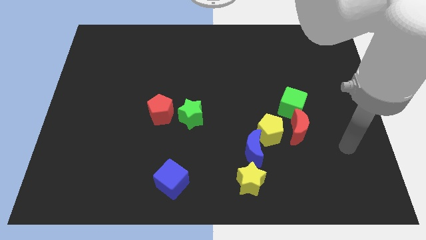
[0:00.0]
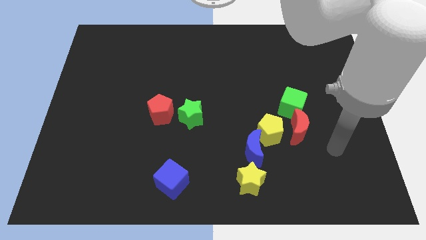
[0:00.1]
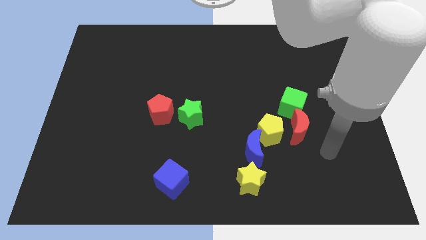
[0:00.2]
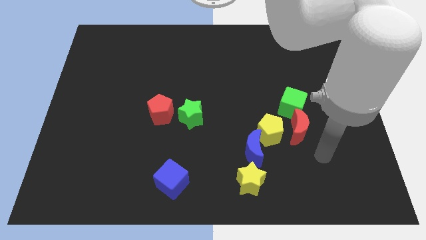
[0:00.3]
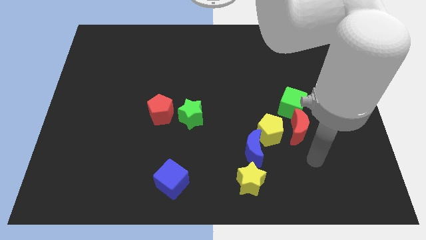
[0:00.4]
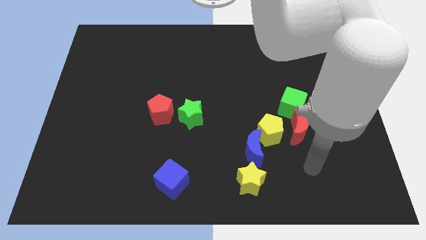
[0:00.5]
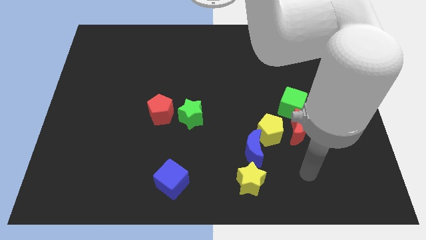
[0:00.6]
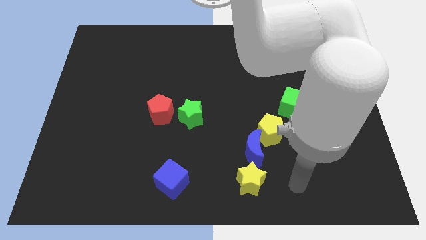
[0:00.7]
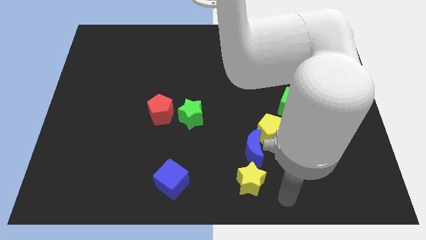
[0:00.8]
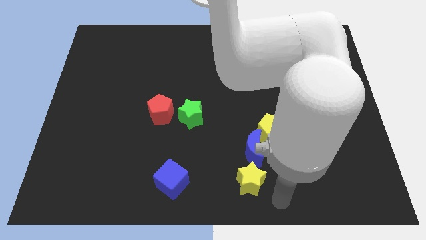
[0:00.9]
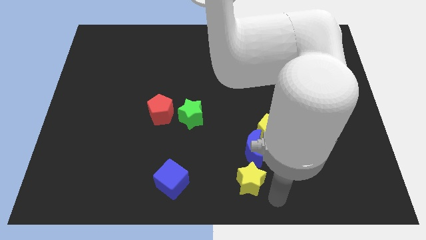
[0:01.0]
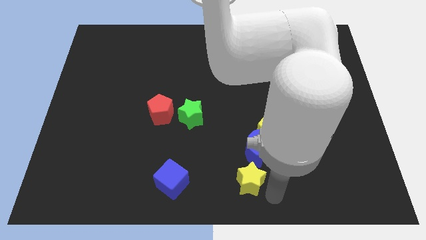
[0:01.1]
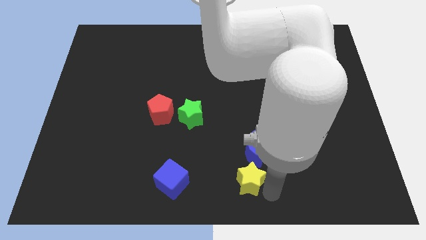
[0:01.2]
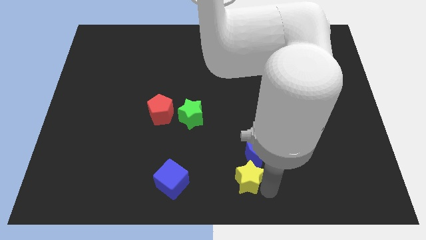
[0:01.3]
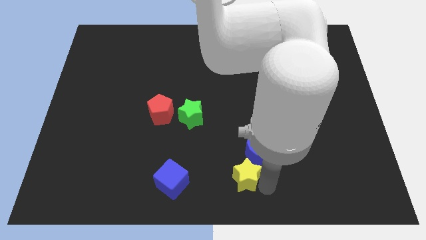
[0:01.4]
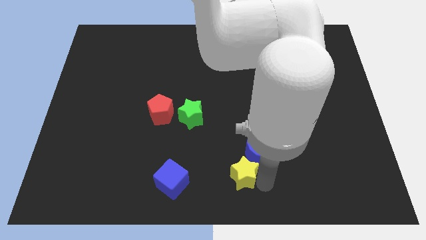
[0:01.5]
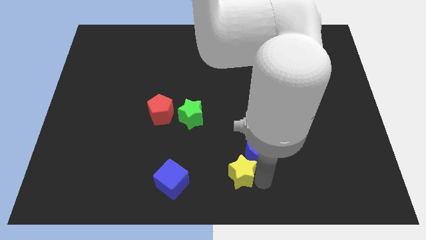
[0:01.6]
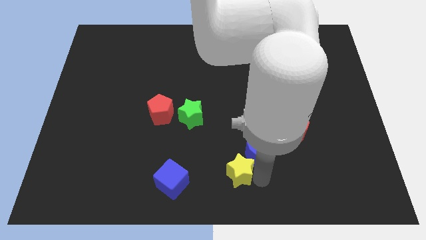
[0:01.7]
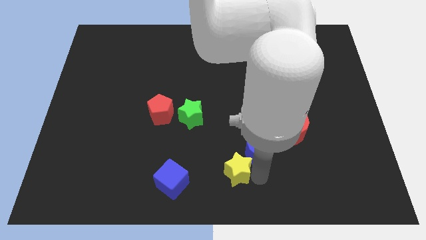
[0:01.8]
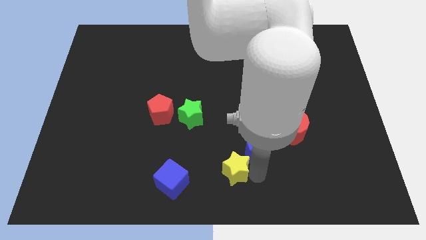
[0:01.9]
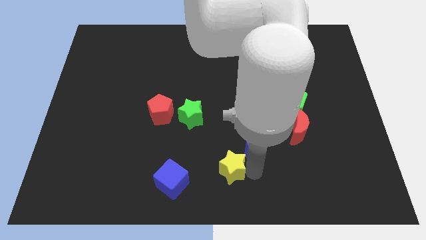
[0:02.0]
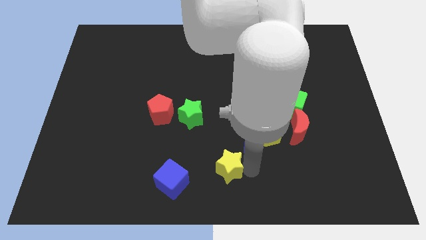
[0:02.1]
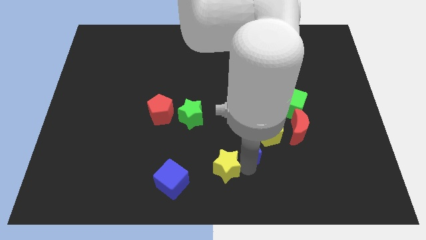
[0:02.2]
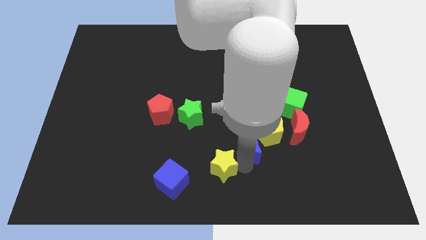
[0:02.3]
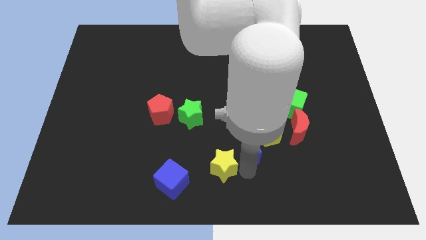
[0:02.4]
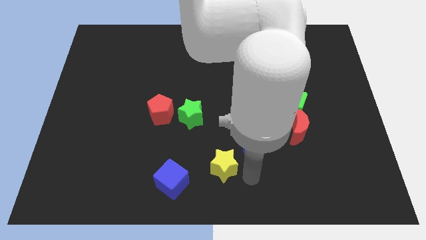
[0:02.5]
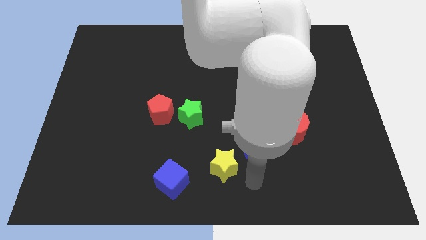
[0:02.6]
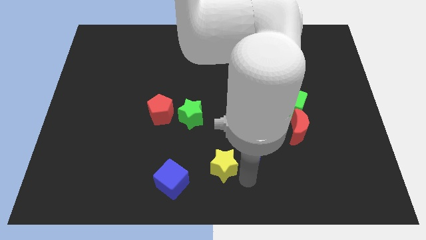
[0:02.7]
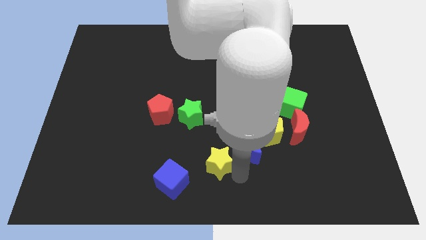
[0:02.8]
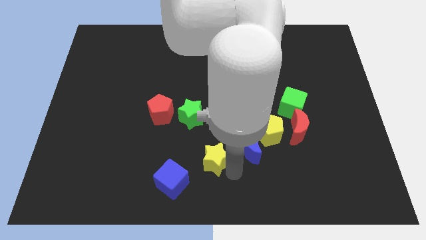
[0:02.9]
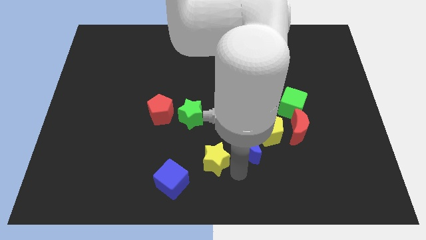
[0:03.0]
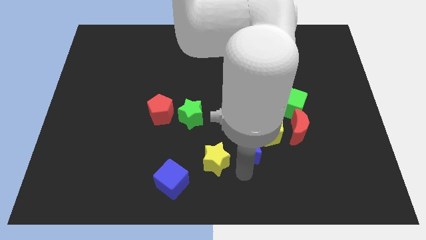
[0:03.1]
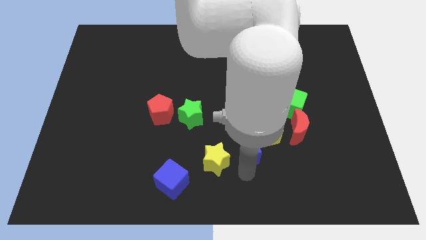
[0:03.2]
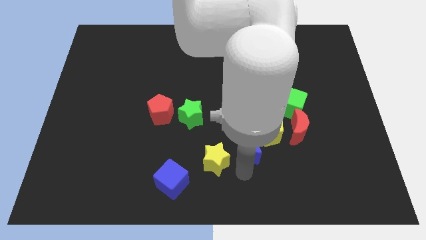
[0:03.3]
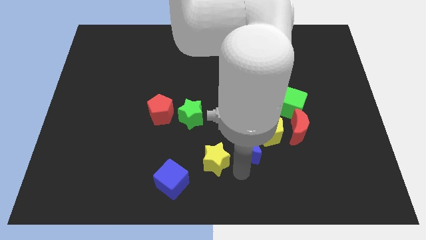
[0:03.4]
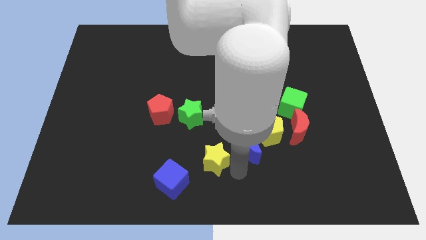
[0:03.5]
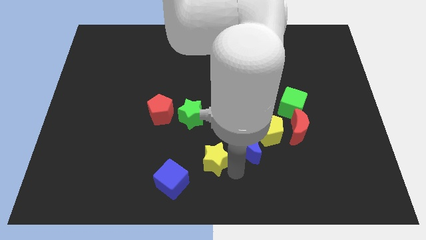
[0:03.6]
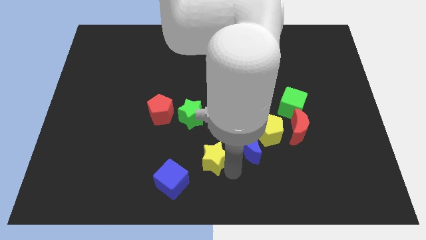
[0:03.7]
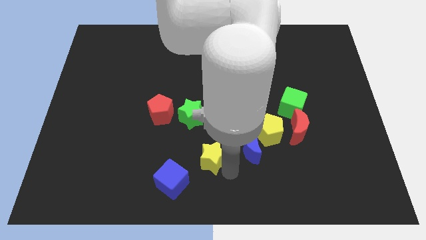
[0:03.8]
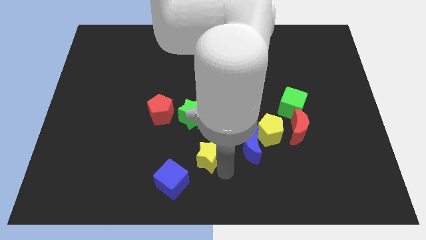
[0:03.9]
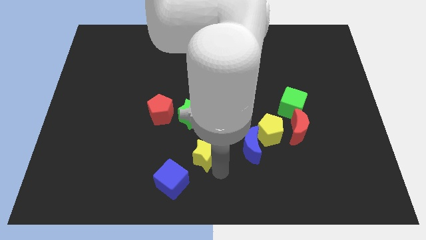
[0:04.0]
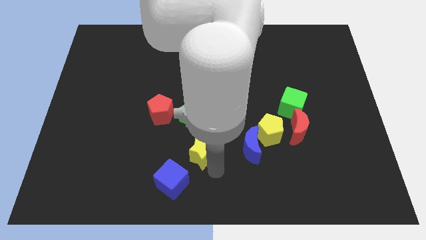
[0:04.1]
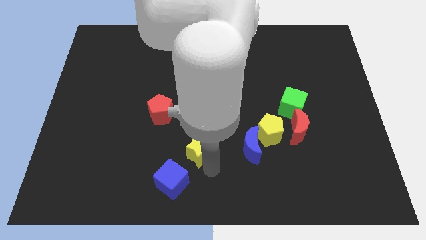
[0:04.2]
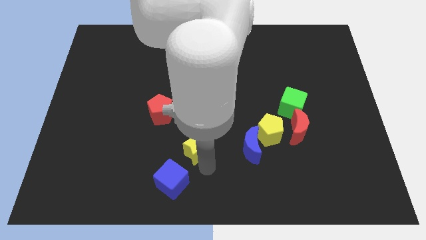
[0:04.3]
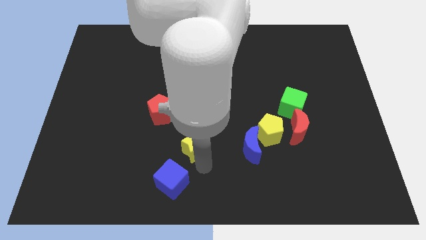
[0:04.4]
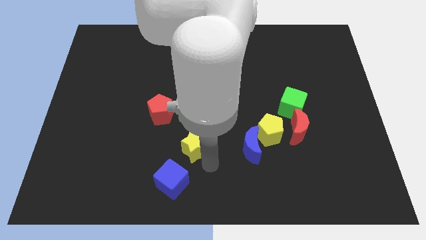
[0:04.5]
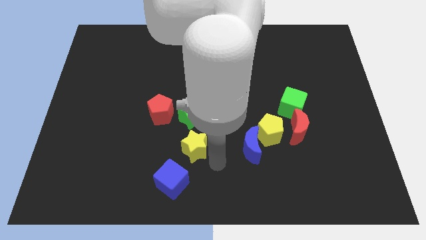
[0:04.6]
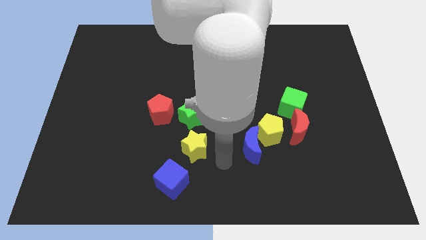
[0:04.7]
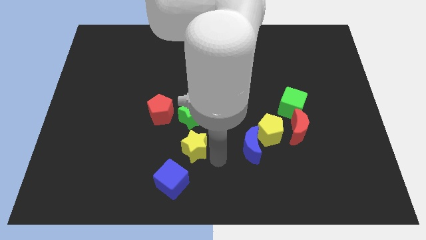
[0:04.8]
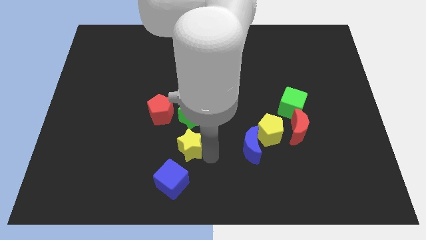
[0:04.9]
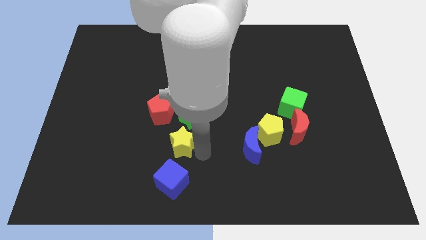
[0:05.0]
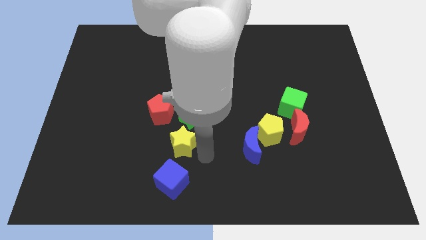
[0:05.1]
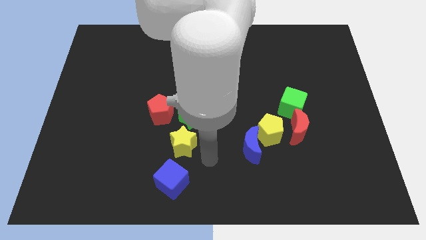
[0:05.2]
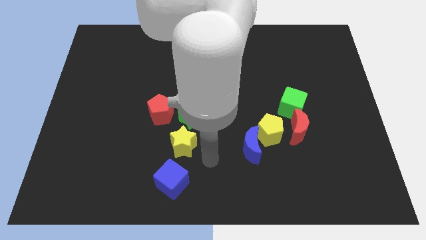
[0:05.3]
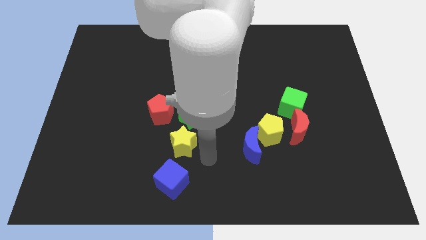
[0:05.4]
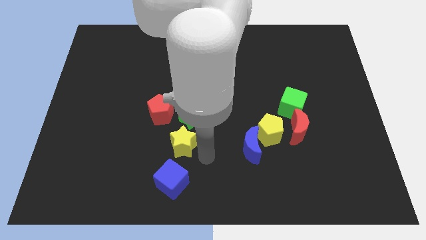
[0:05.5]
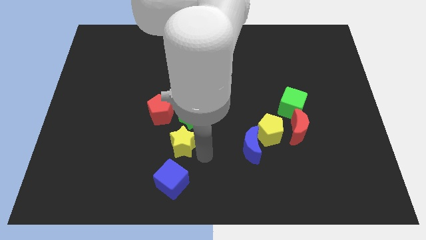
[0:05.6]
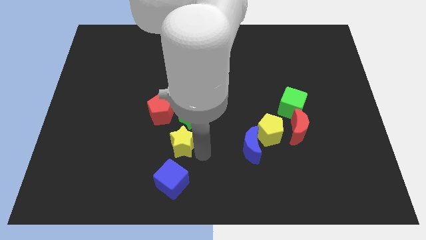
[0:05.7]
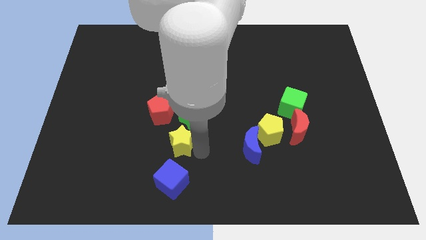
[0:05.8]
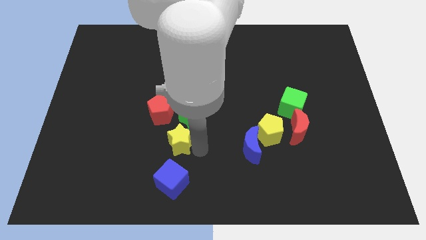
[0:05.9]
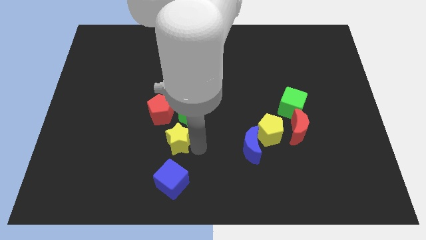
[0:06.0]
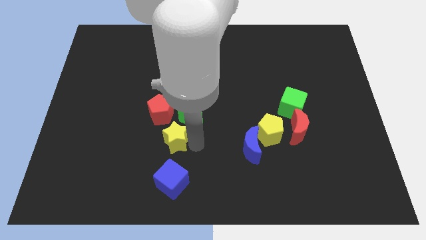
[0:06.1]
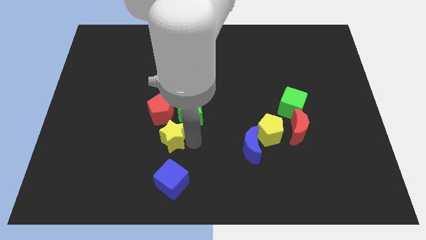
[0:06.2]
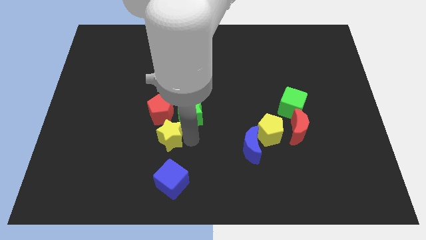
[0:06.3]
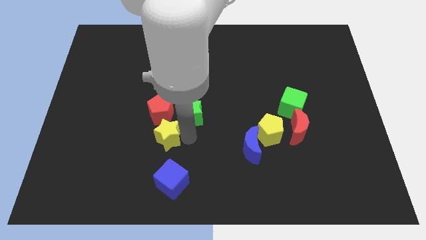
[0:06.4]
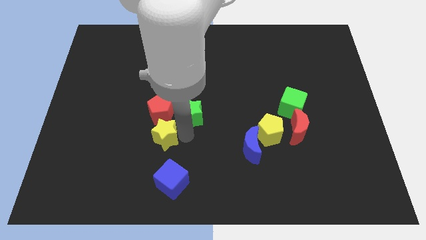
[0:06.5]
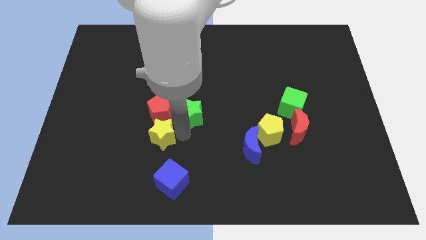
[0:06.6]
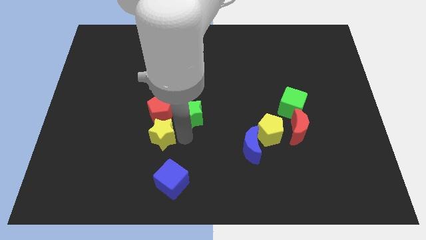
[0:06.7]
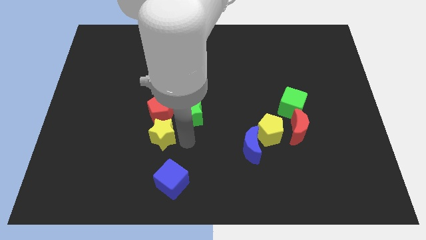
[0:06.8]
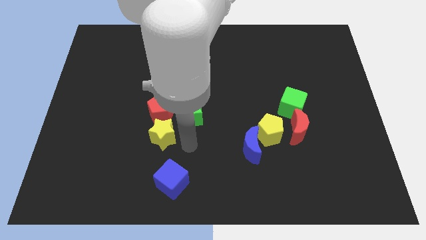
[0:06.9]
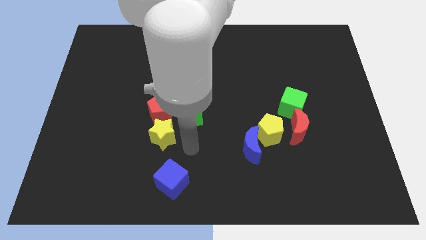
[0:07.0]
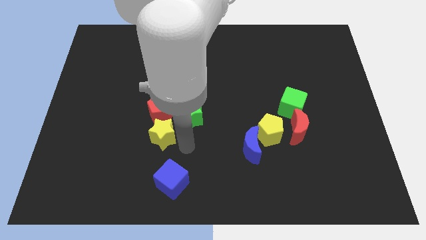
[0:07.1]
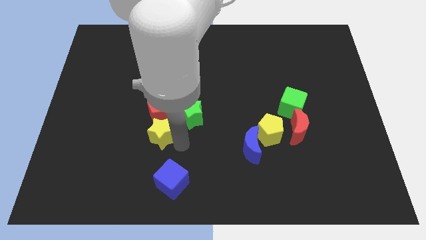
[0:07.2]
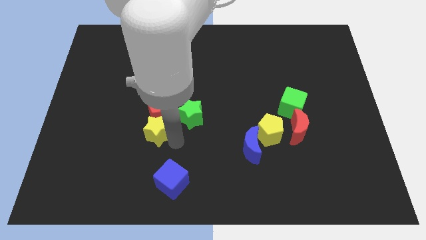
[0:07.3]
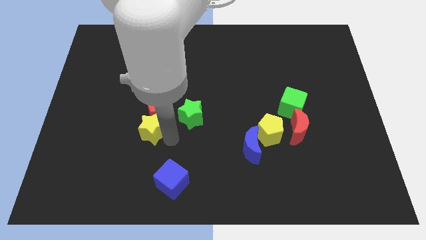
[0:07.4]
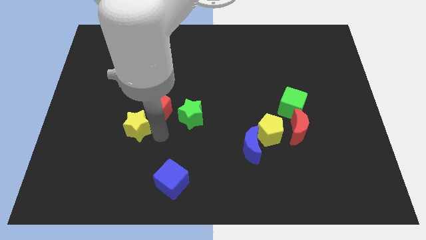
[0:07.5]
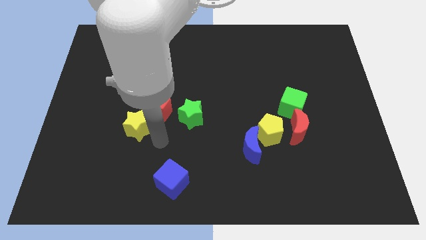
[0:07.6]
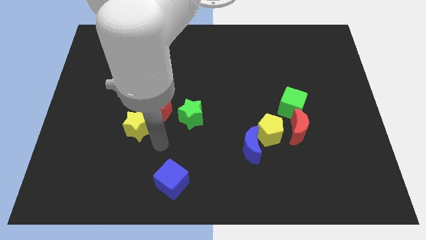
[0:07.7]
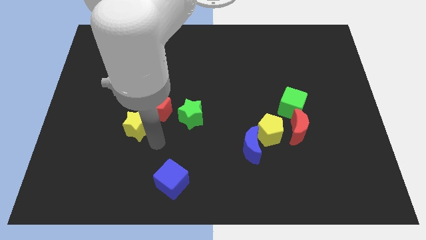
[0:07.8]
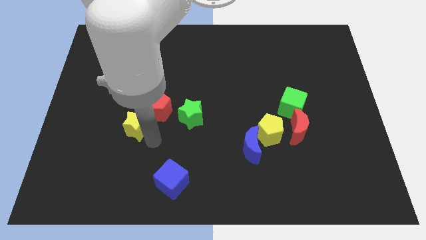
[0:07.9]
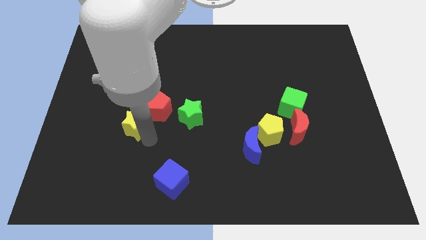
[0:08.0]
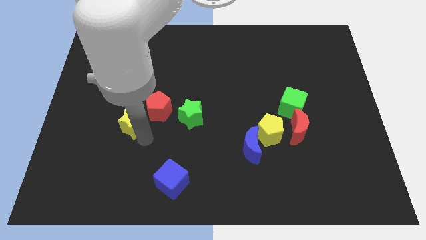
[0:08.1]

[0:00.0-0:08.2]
push the yellow star to the left of the red pentagon
